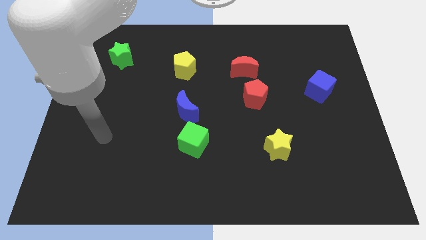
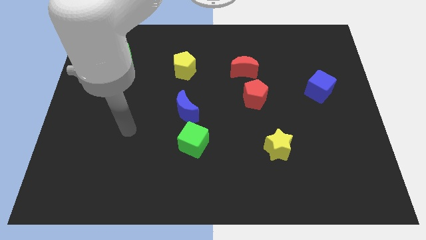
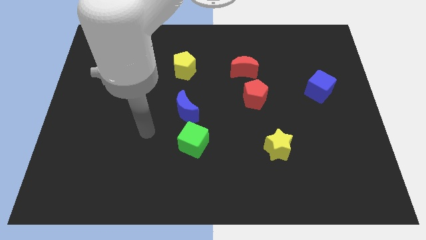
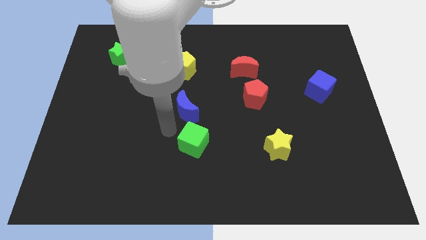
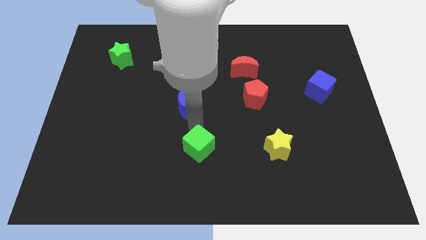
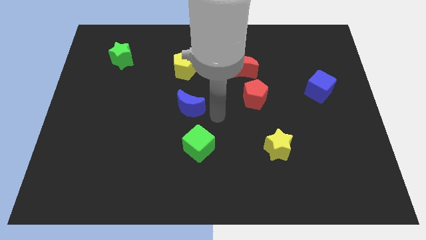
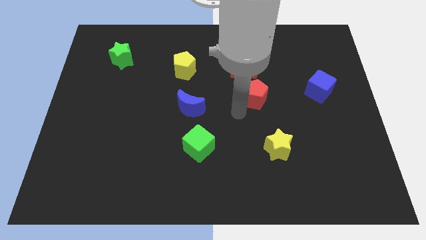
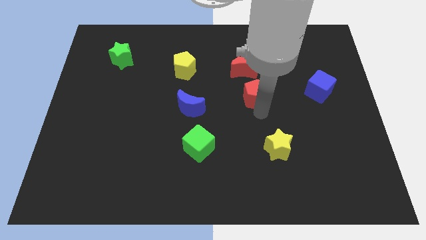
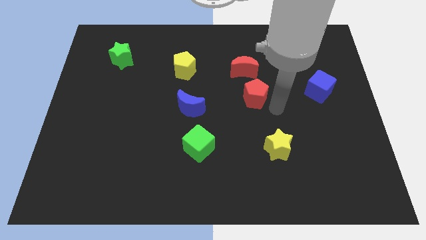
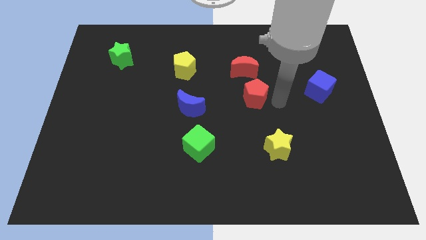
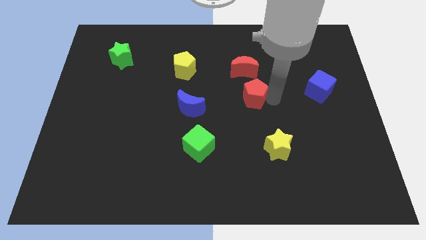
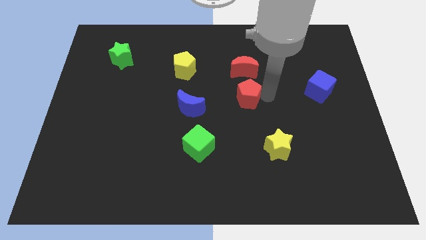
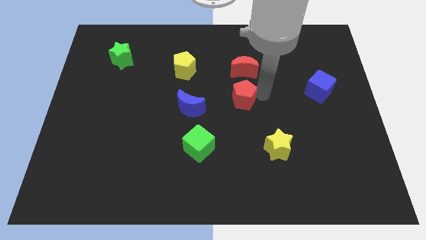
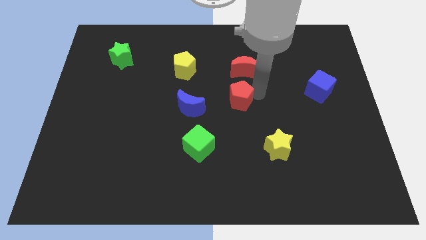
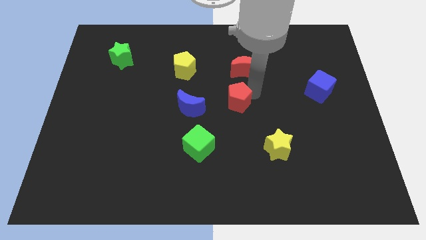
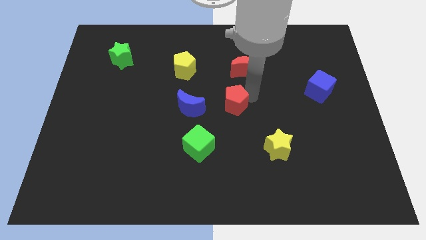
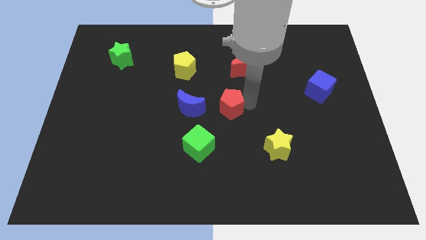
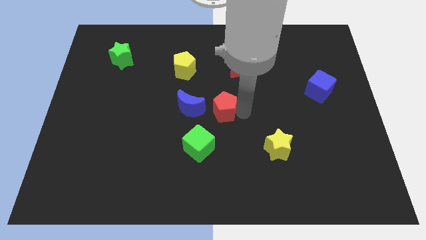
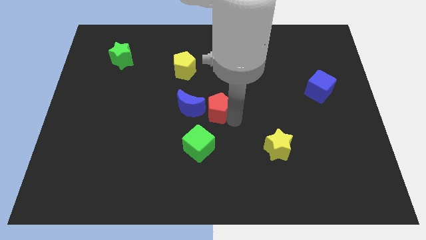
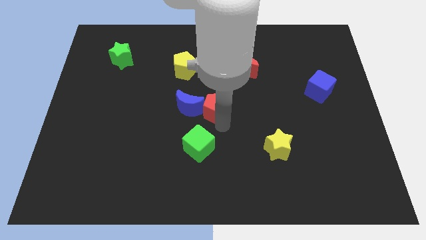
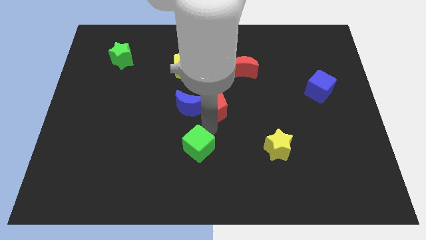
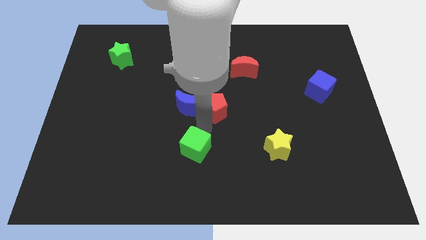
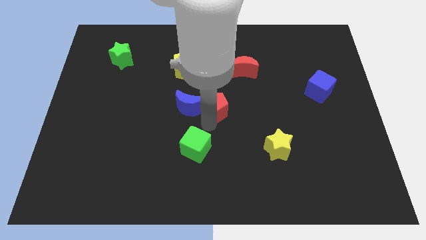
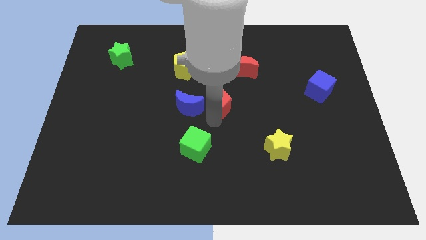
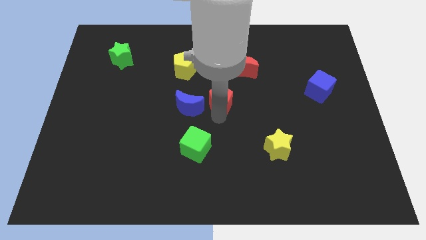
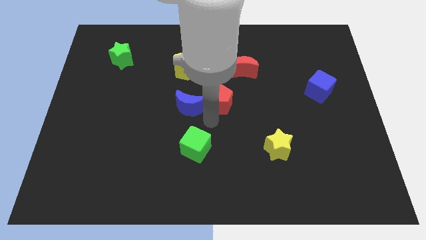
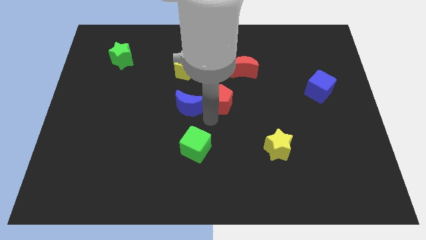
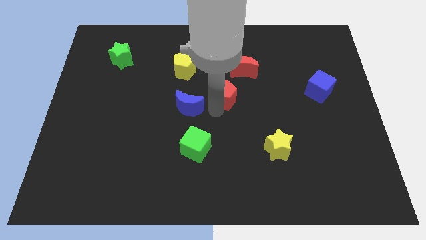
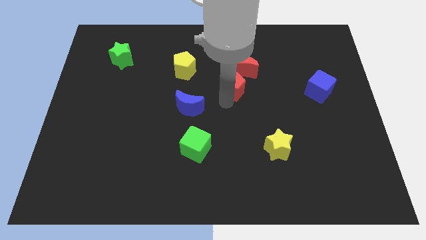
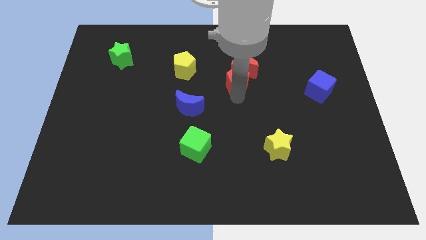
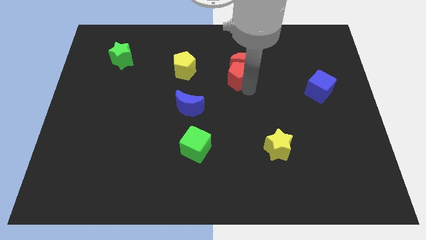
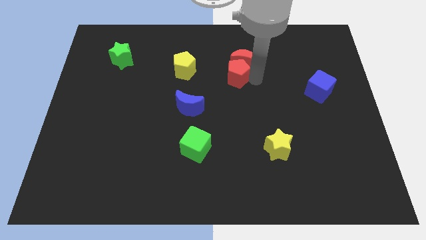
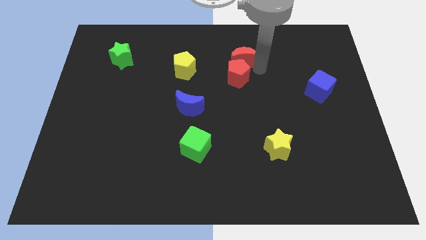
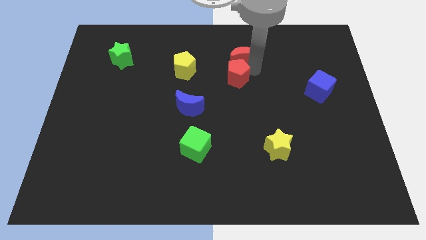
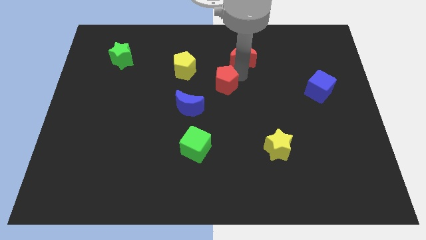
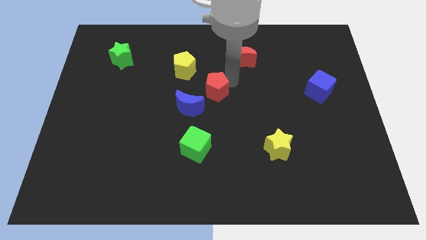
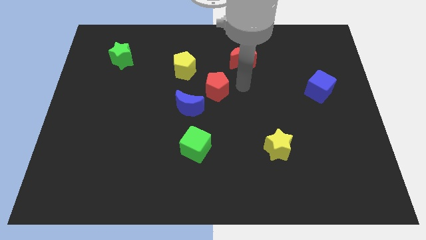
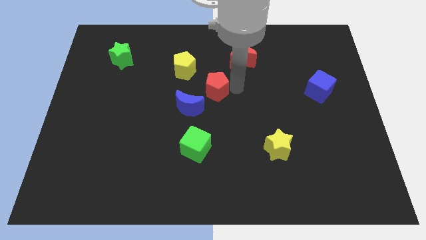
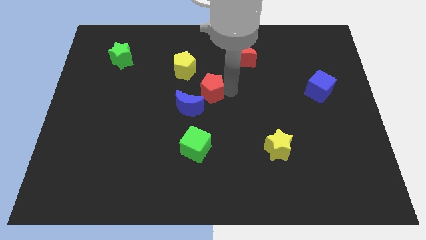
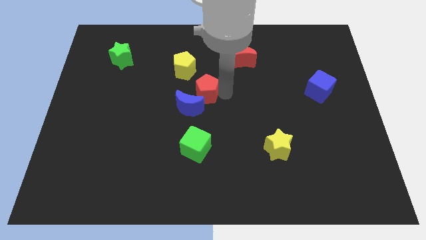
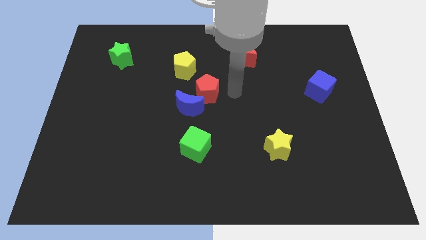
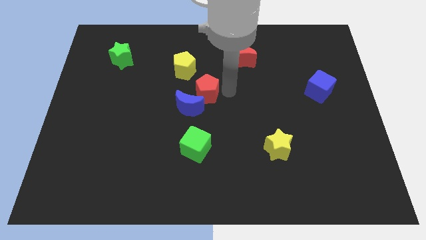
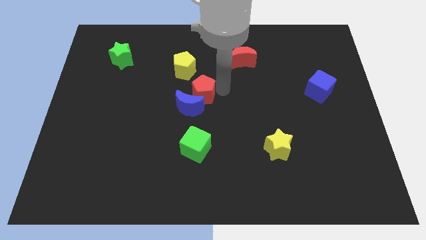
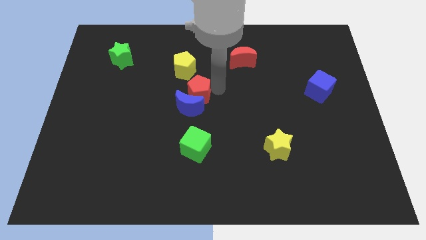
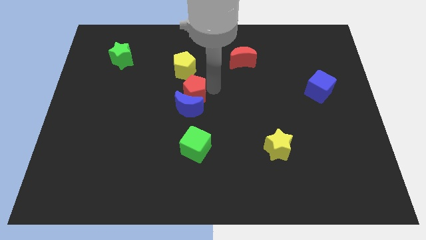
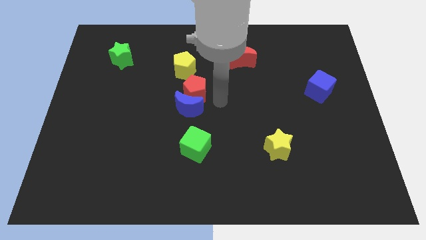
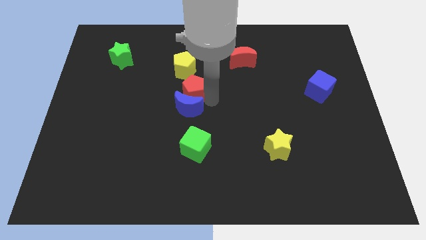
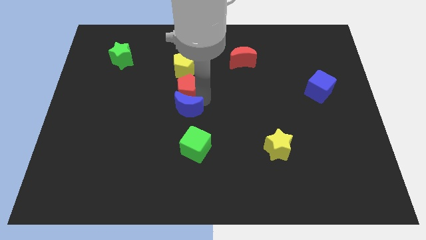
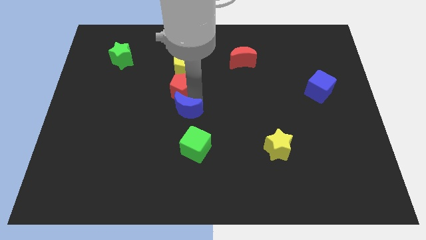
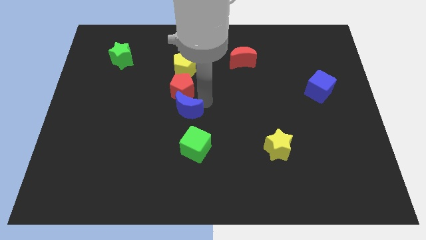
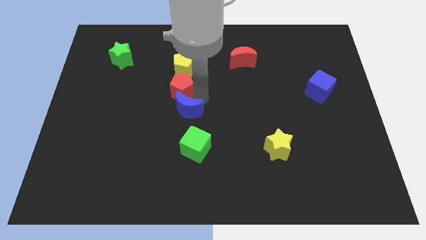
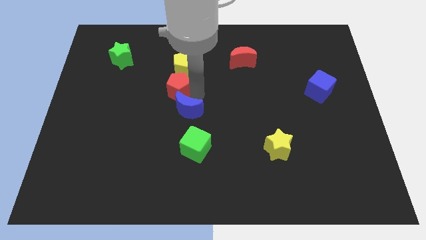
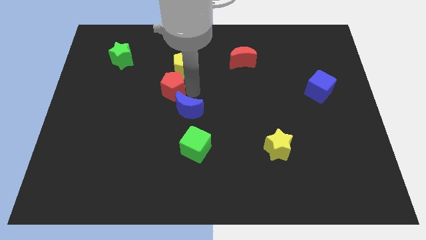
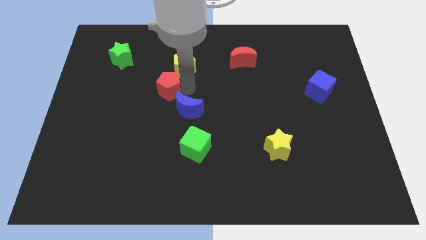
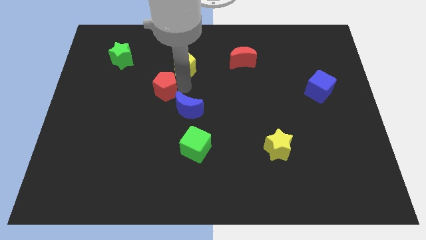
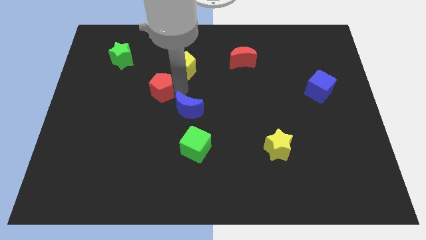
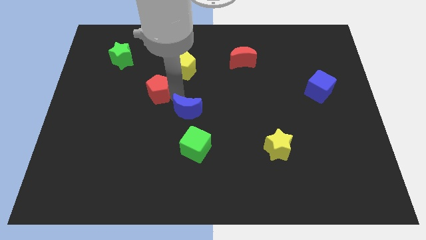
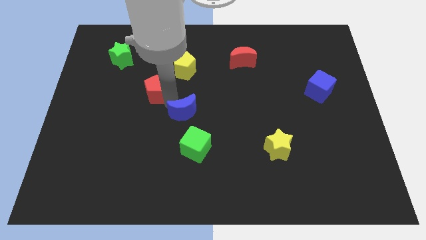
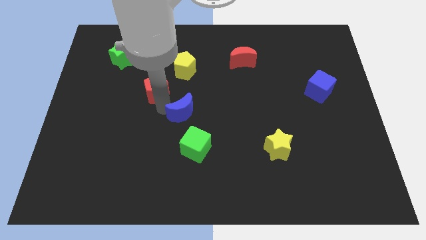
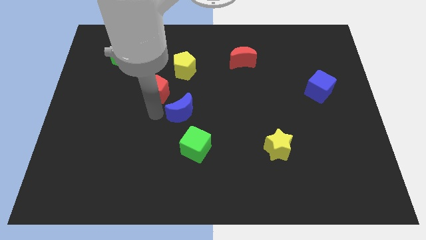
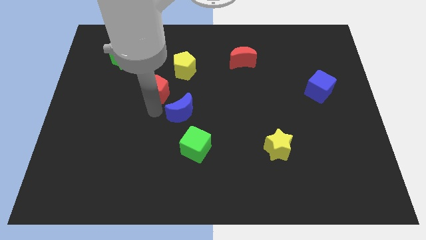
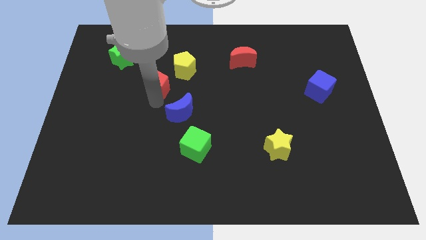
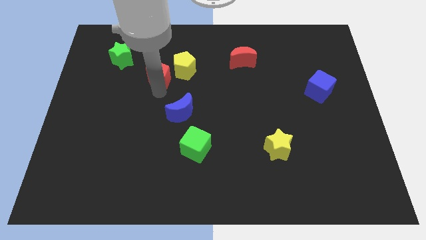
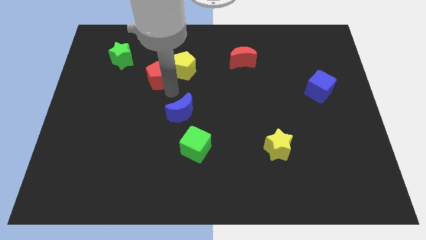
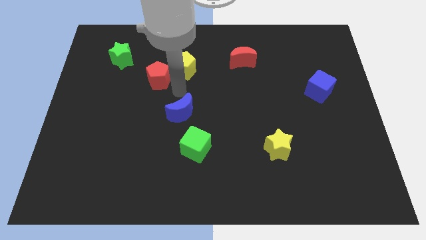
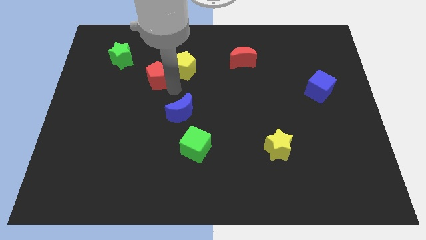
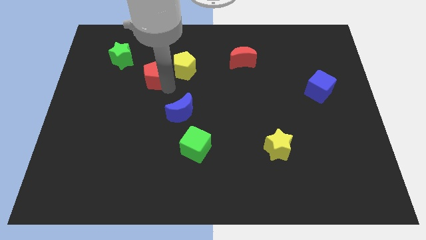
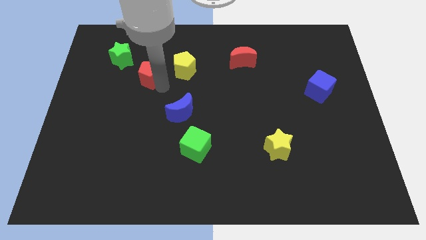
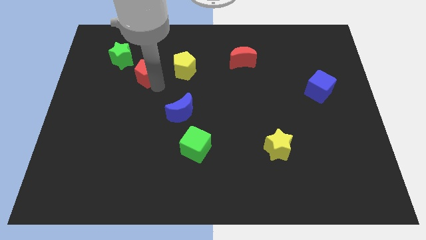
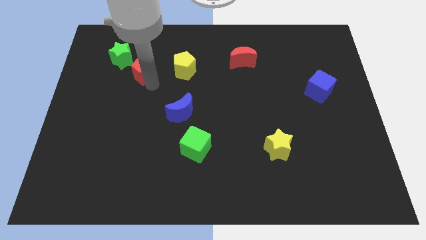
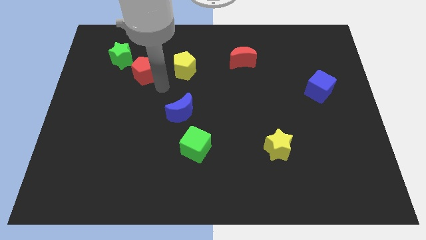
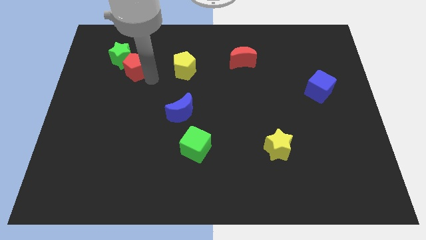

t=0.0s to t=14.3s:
put the red pentagon next to the green star
